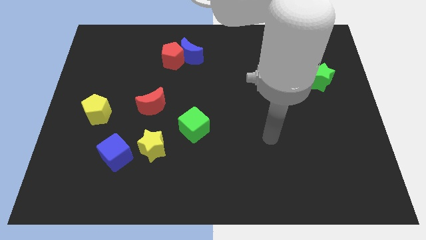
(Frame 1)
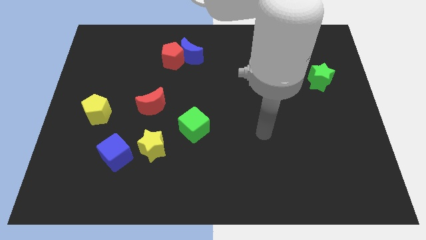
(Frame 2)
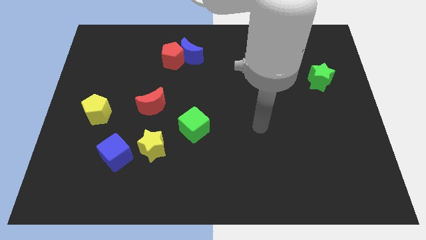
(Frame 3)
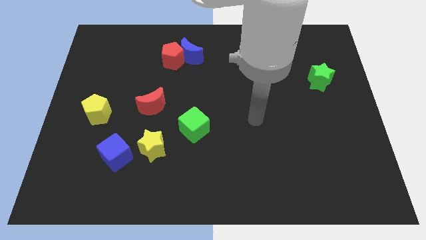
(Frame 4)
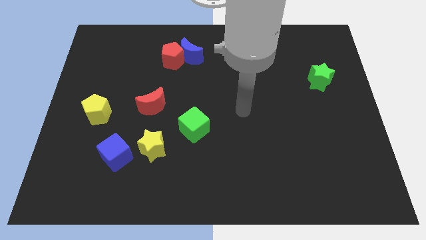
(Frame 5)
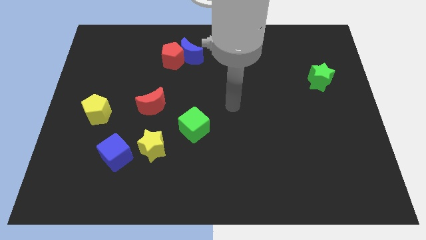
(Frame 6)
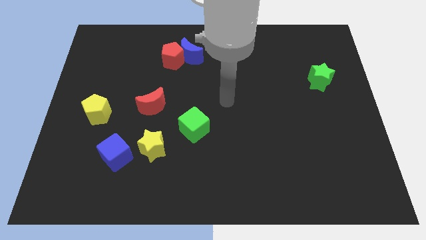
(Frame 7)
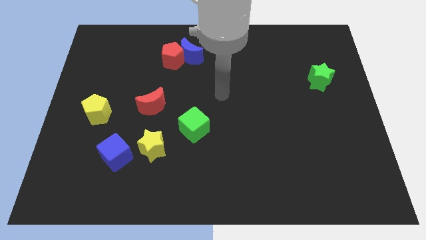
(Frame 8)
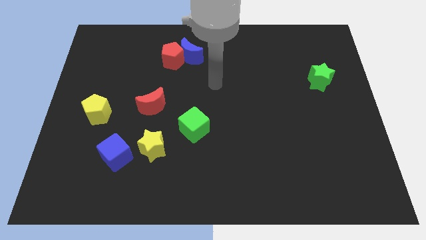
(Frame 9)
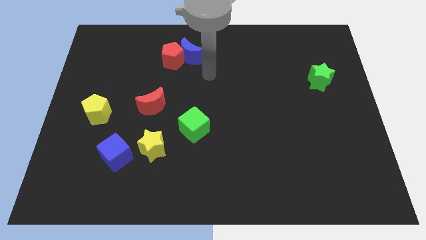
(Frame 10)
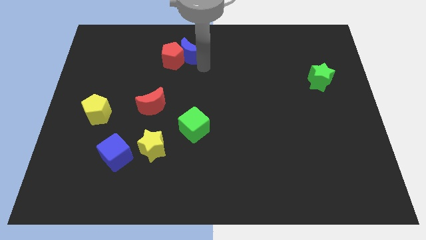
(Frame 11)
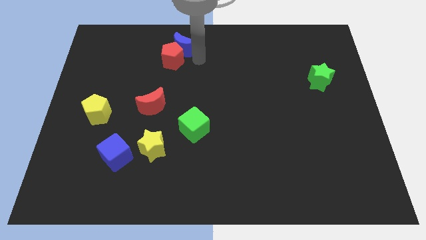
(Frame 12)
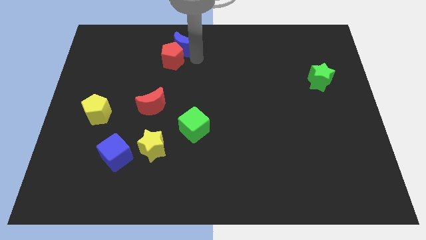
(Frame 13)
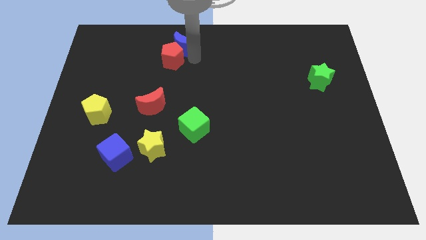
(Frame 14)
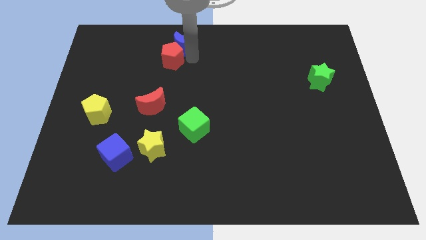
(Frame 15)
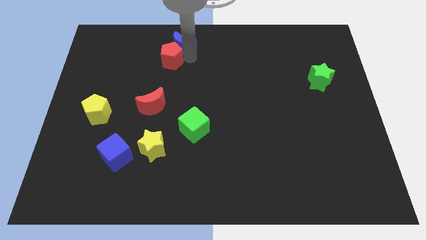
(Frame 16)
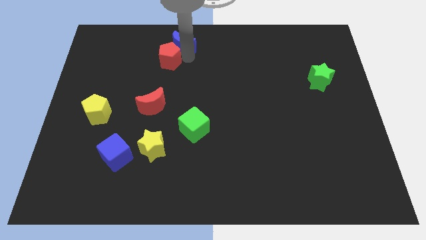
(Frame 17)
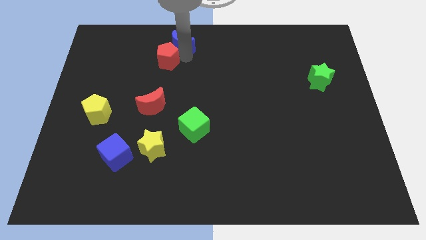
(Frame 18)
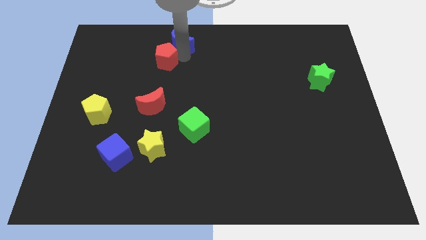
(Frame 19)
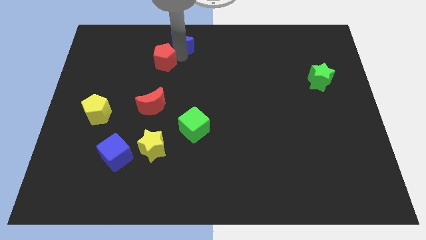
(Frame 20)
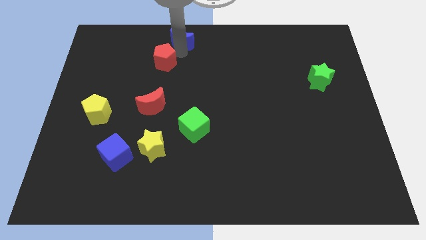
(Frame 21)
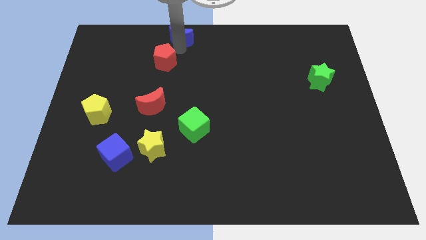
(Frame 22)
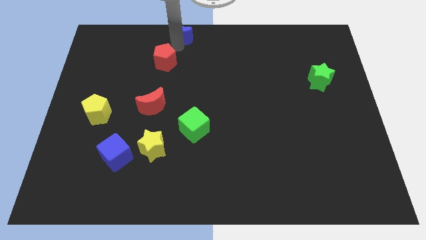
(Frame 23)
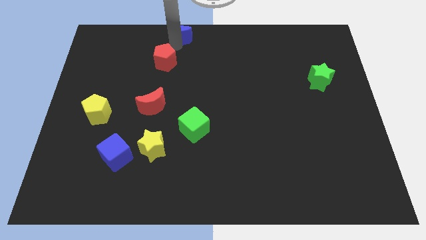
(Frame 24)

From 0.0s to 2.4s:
move the red pentagon away from the blue moon

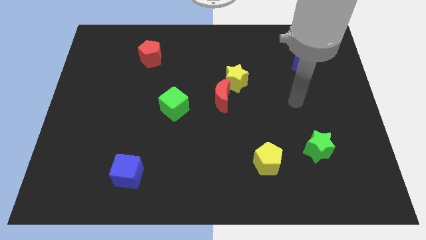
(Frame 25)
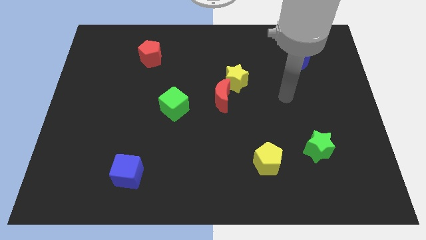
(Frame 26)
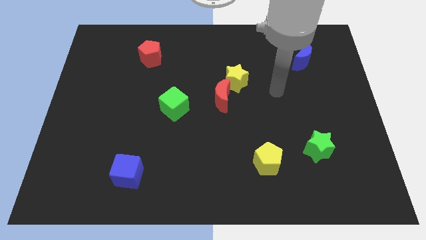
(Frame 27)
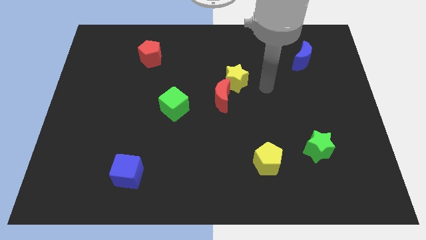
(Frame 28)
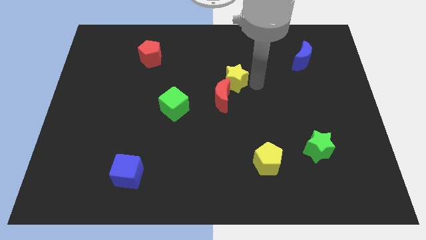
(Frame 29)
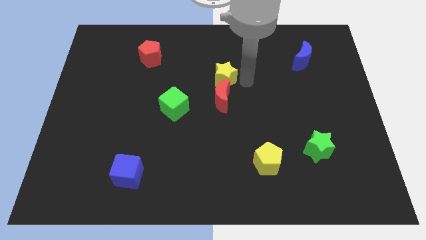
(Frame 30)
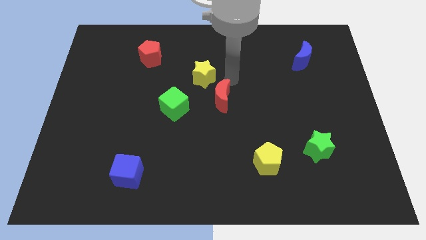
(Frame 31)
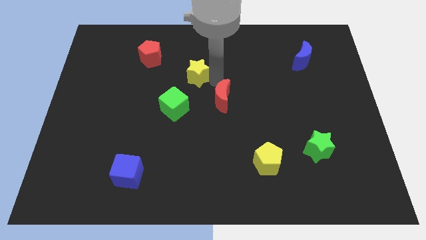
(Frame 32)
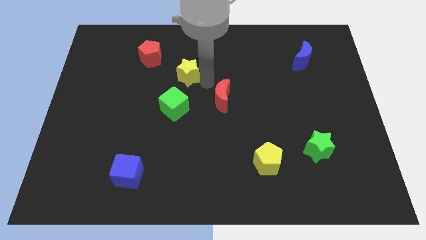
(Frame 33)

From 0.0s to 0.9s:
separate the red moon from the yellow star

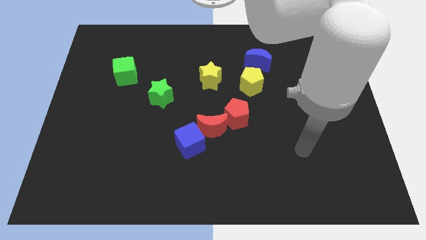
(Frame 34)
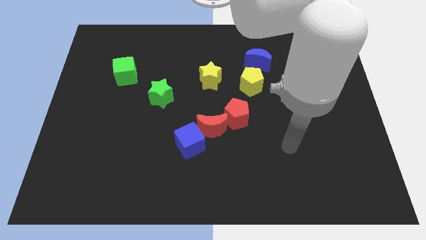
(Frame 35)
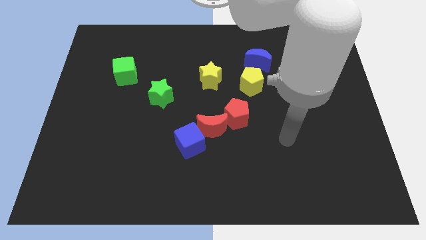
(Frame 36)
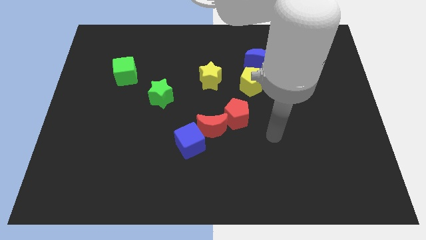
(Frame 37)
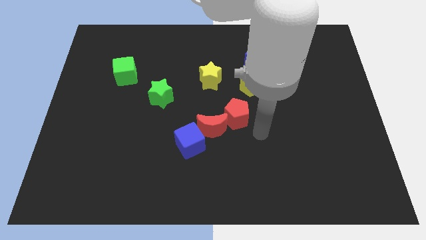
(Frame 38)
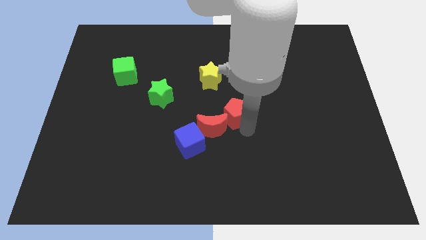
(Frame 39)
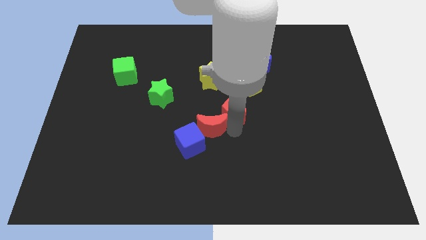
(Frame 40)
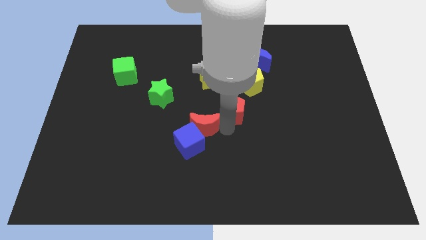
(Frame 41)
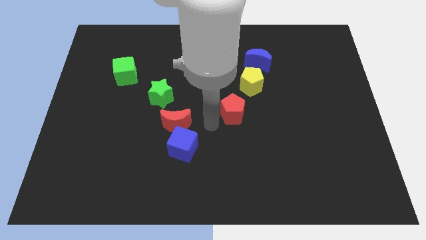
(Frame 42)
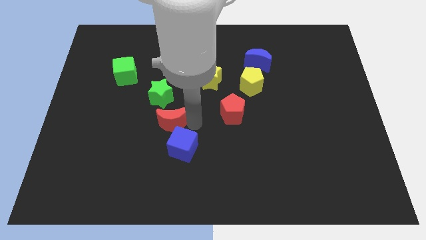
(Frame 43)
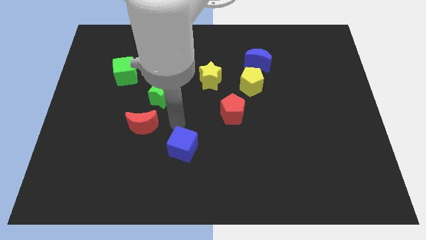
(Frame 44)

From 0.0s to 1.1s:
move the blue cube away from the red moon

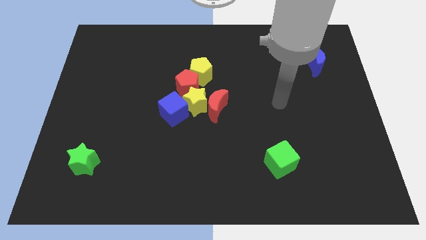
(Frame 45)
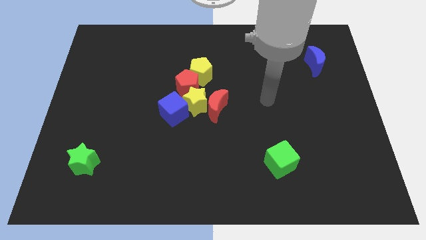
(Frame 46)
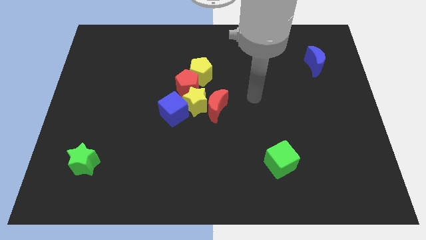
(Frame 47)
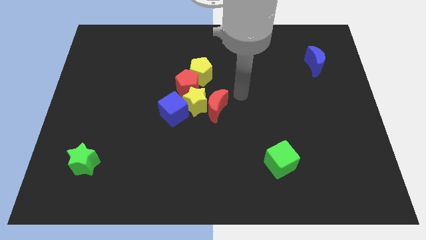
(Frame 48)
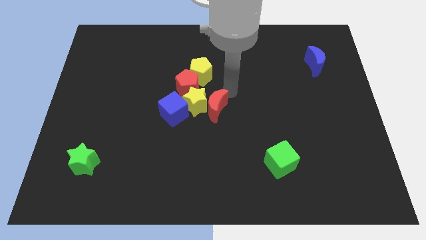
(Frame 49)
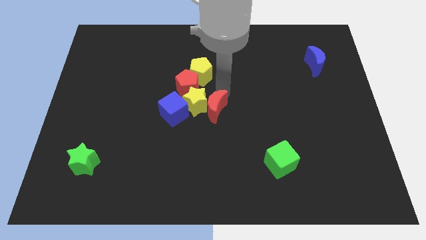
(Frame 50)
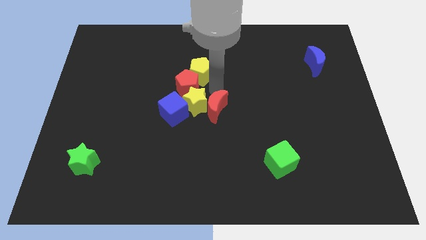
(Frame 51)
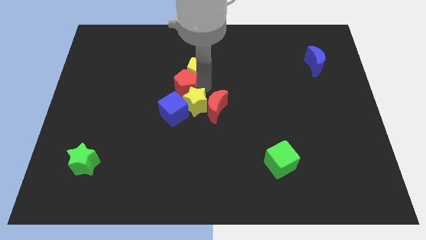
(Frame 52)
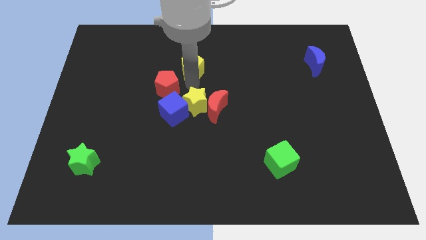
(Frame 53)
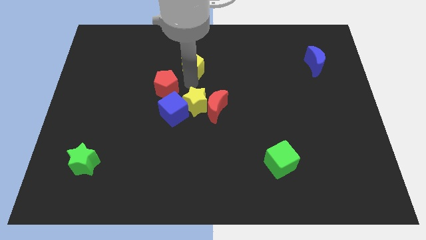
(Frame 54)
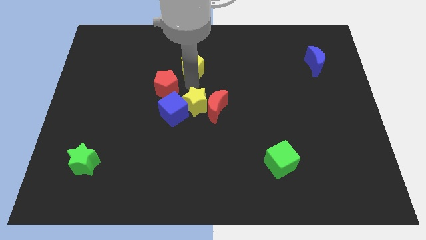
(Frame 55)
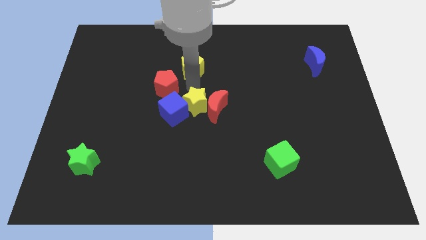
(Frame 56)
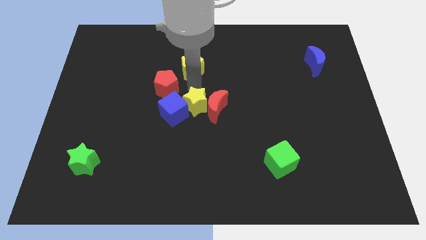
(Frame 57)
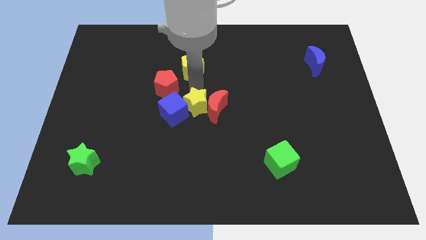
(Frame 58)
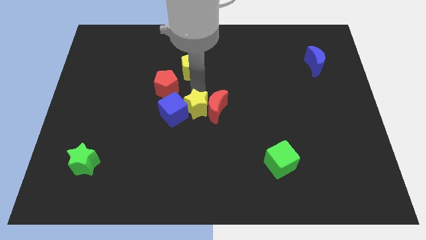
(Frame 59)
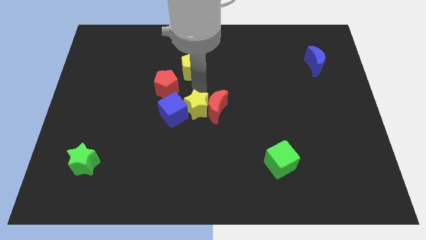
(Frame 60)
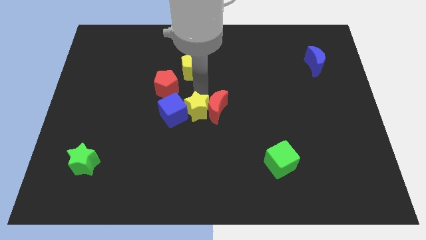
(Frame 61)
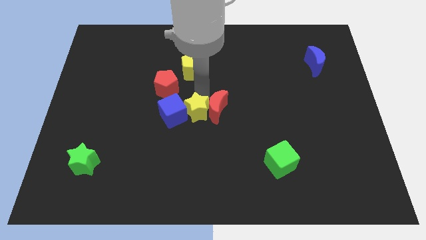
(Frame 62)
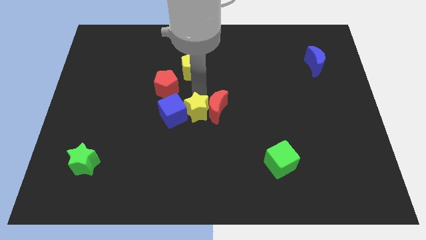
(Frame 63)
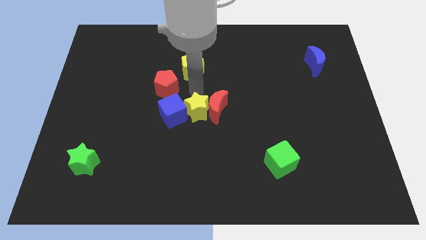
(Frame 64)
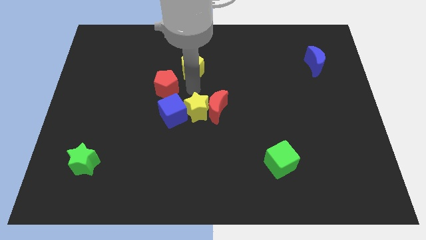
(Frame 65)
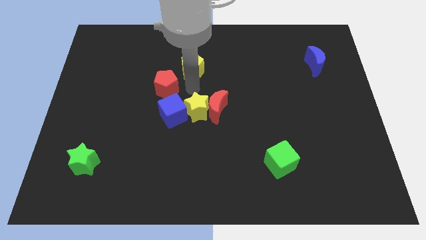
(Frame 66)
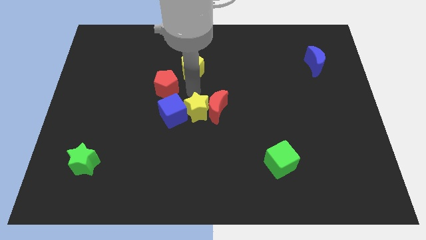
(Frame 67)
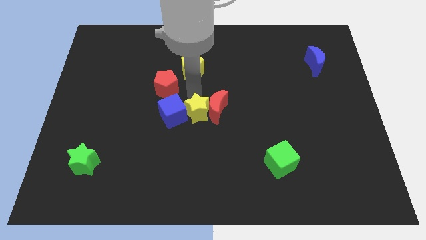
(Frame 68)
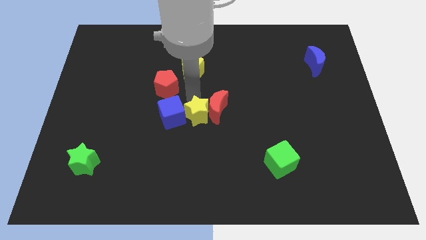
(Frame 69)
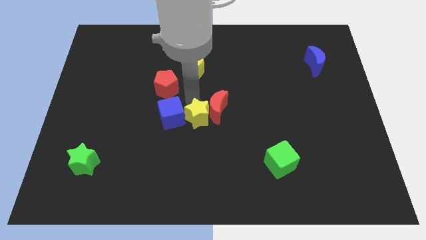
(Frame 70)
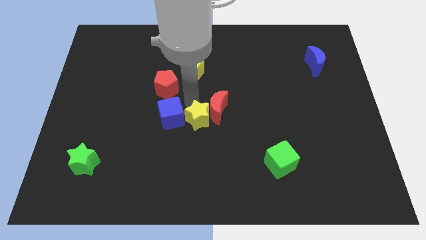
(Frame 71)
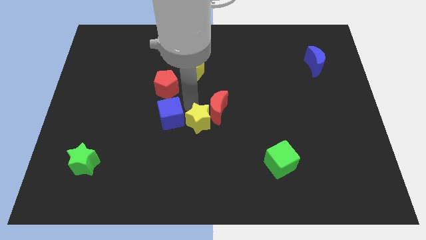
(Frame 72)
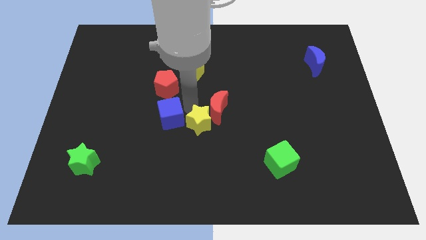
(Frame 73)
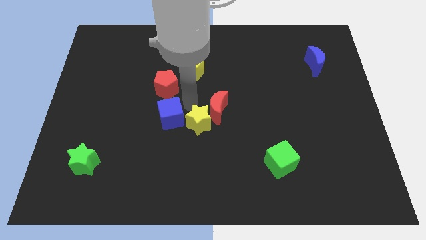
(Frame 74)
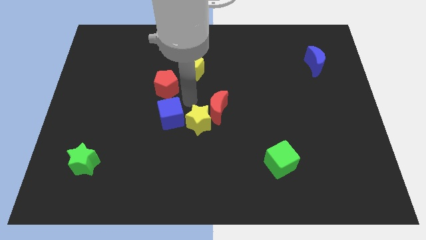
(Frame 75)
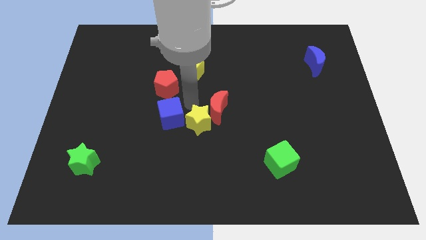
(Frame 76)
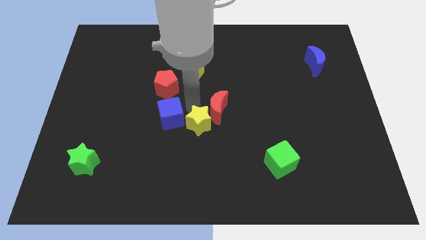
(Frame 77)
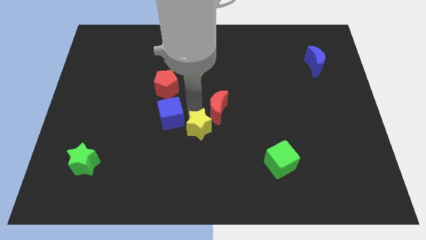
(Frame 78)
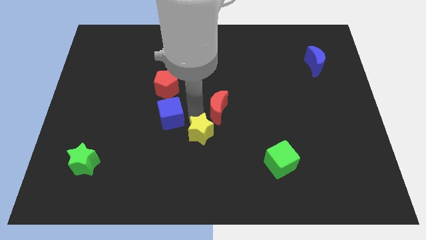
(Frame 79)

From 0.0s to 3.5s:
move the yellow star away from the group of blocks

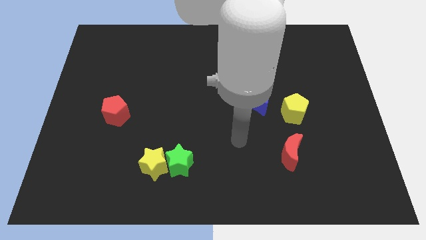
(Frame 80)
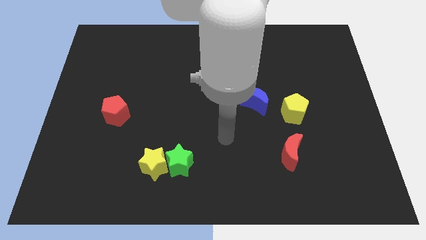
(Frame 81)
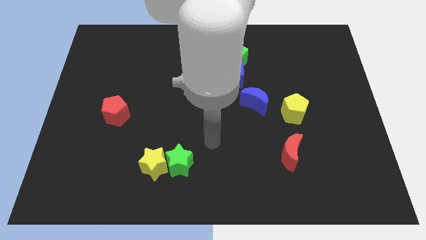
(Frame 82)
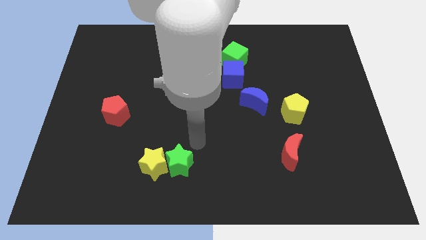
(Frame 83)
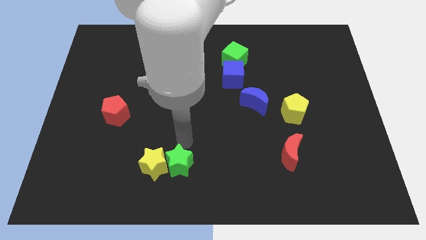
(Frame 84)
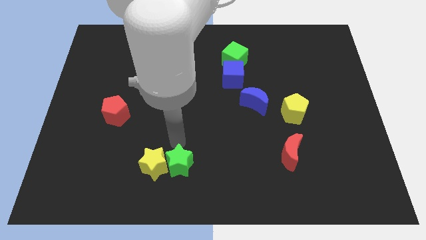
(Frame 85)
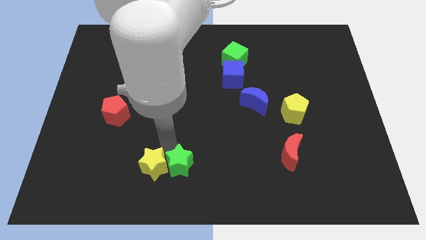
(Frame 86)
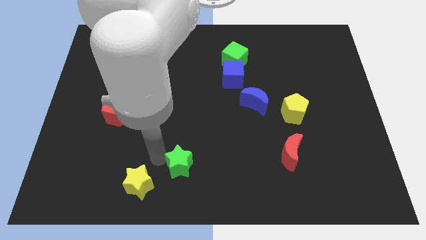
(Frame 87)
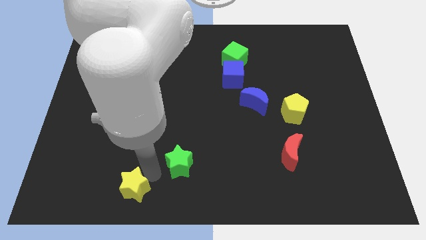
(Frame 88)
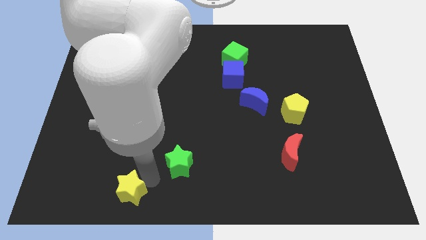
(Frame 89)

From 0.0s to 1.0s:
move the green star away from the yellow star

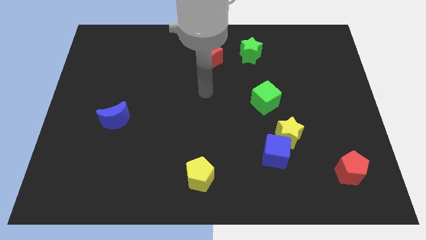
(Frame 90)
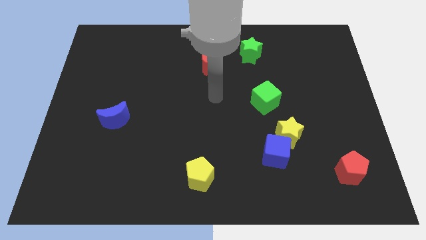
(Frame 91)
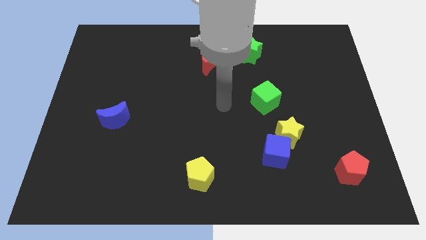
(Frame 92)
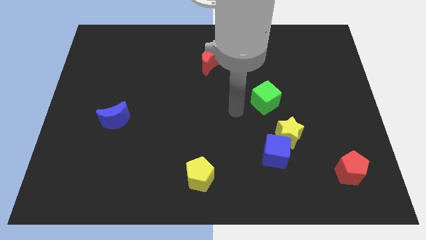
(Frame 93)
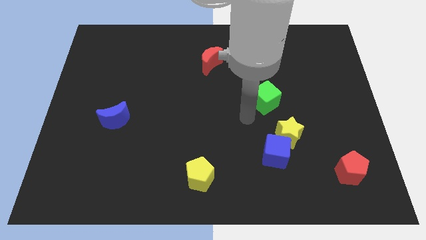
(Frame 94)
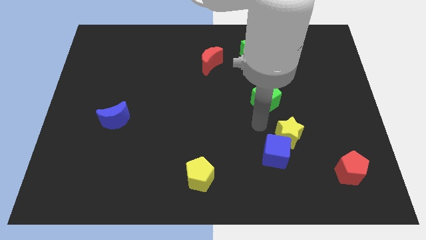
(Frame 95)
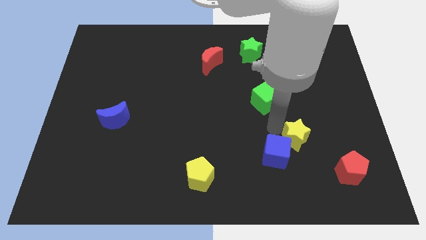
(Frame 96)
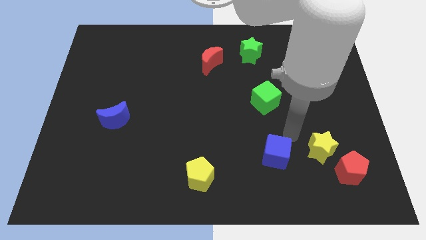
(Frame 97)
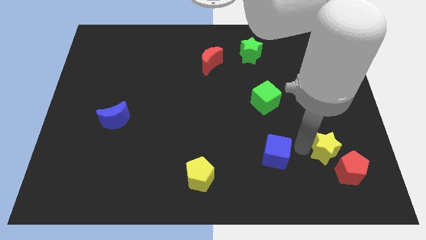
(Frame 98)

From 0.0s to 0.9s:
pull the blue cube apart from the yellow star
